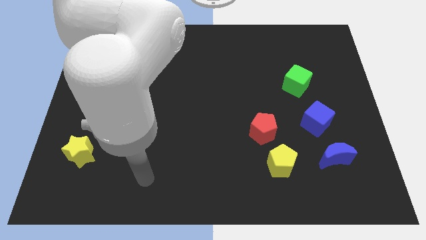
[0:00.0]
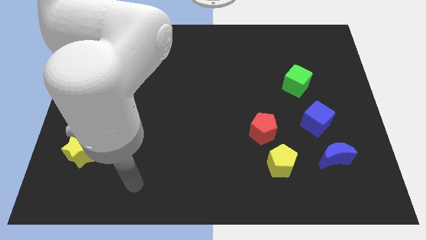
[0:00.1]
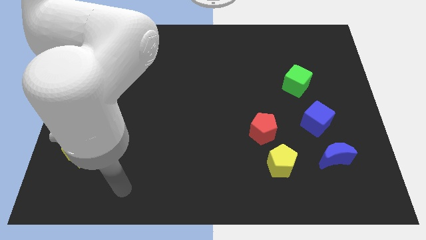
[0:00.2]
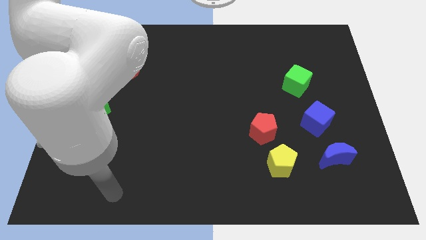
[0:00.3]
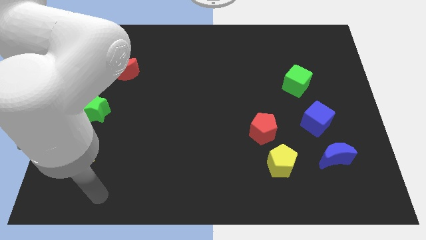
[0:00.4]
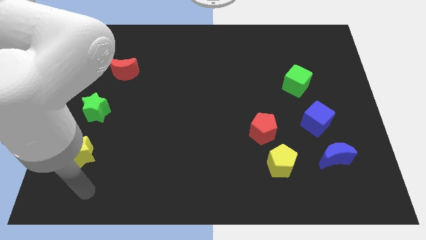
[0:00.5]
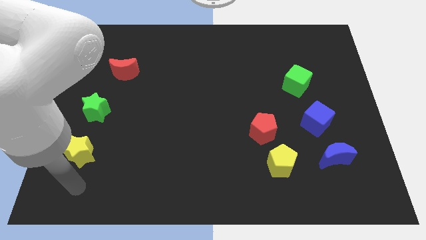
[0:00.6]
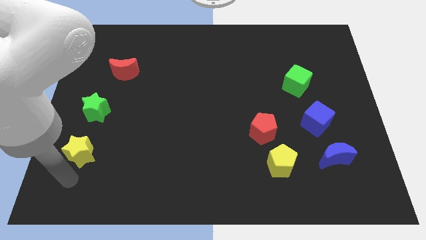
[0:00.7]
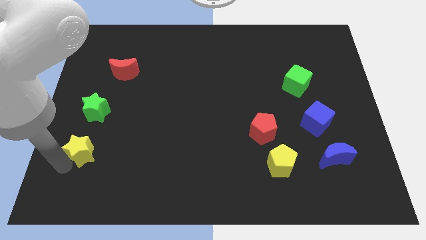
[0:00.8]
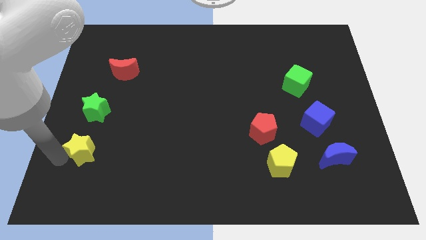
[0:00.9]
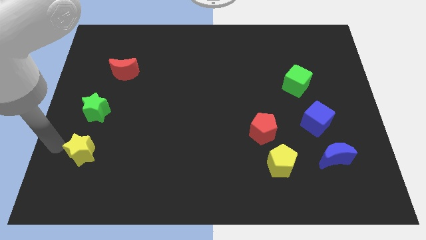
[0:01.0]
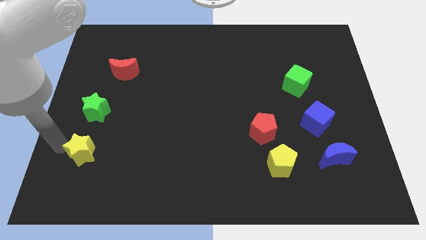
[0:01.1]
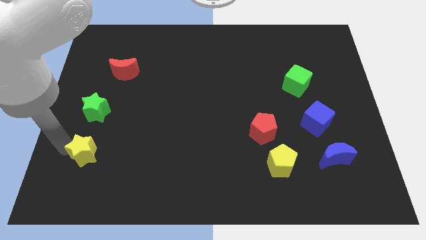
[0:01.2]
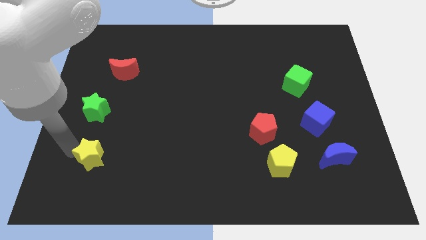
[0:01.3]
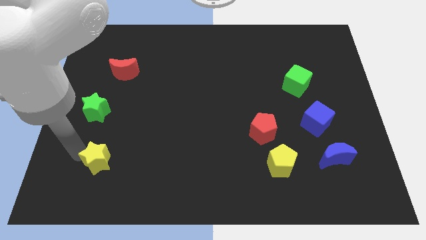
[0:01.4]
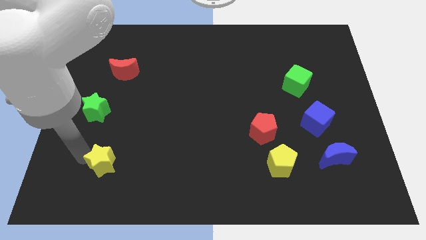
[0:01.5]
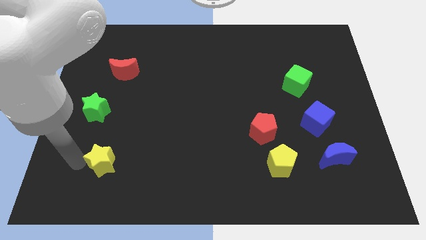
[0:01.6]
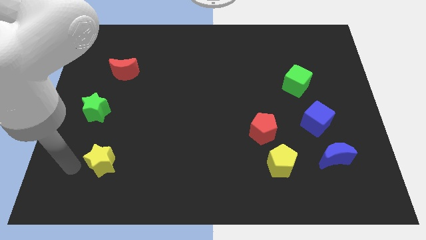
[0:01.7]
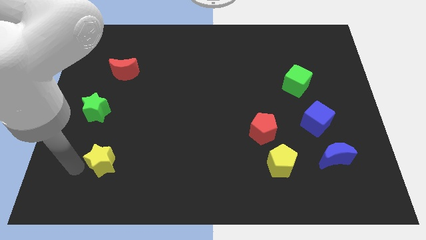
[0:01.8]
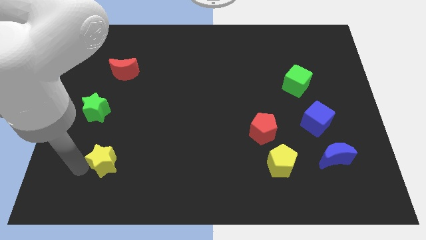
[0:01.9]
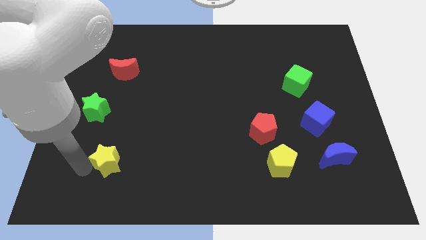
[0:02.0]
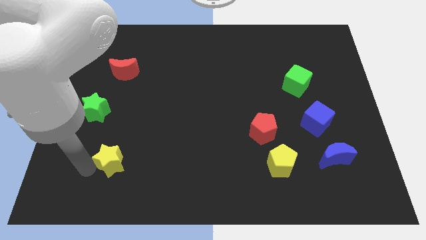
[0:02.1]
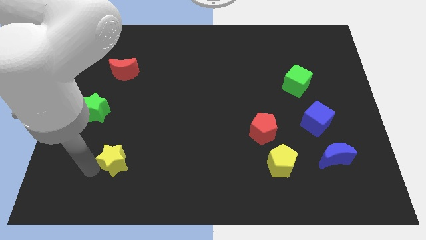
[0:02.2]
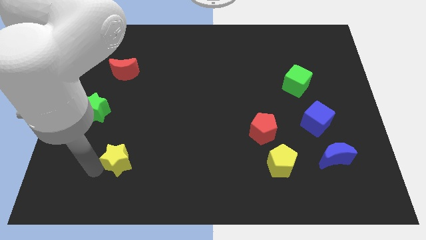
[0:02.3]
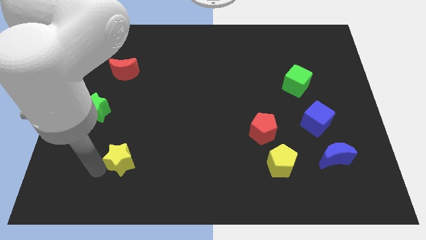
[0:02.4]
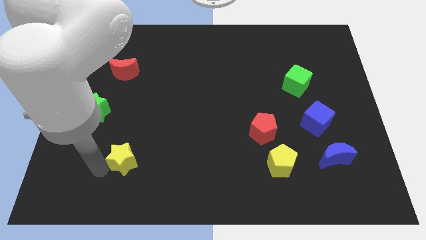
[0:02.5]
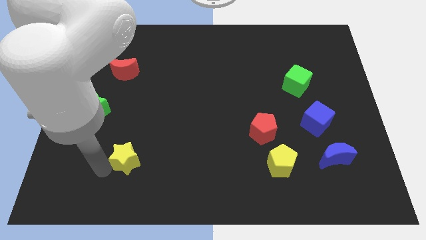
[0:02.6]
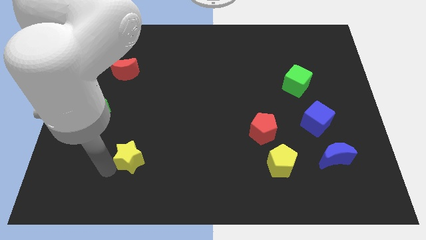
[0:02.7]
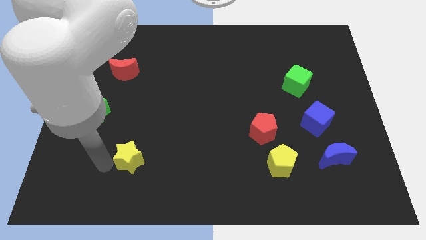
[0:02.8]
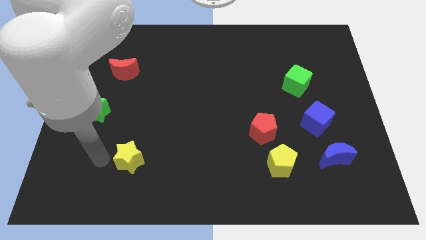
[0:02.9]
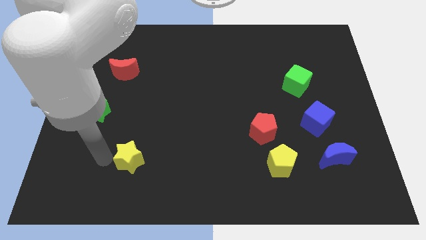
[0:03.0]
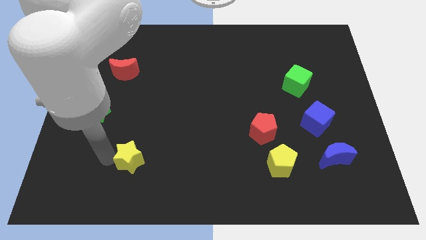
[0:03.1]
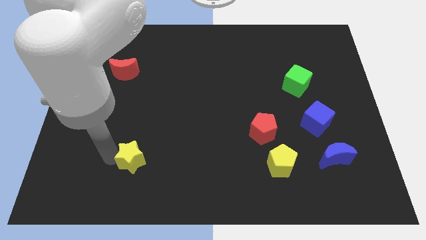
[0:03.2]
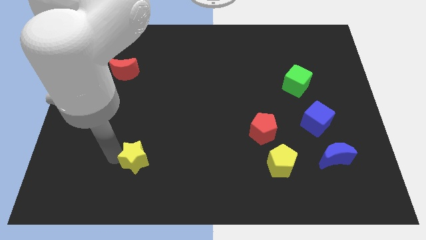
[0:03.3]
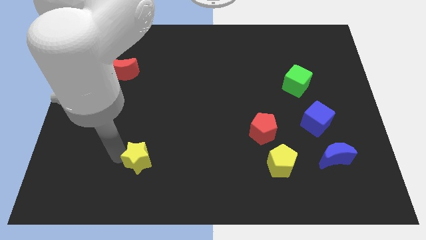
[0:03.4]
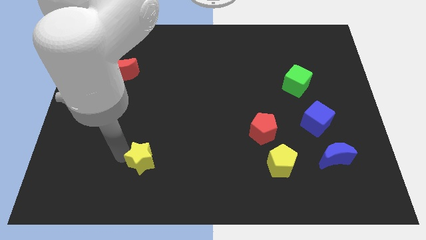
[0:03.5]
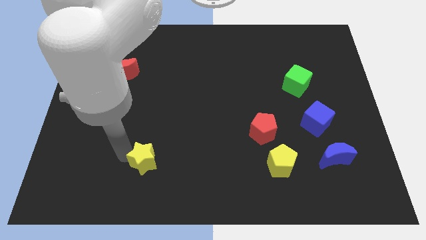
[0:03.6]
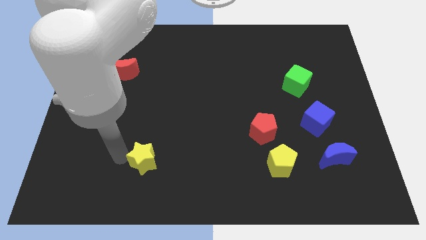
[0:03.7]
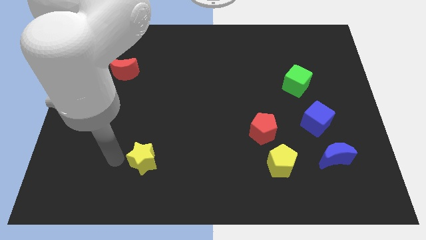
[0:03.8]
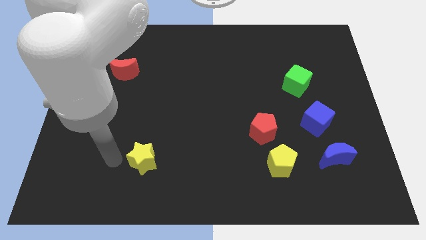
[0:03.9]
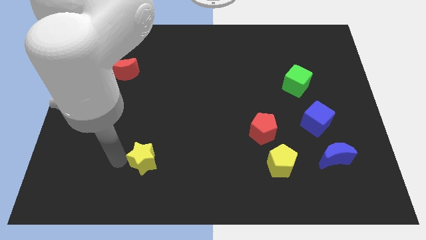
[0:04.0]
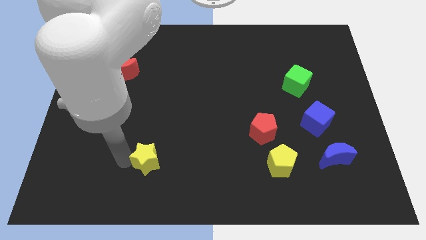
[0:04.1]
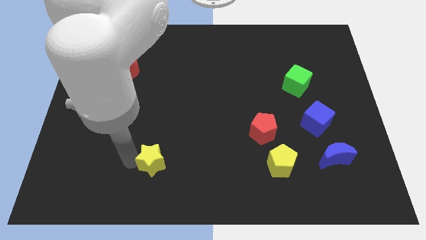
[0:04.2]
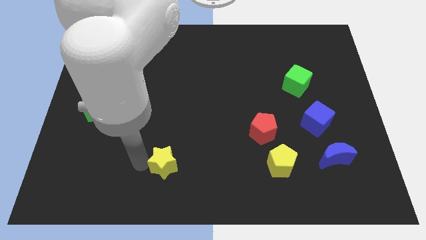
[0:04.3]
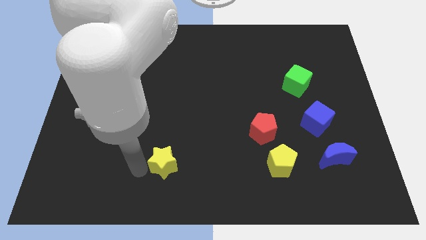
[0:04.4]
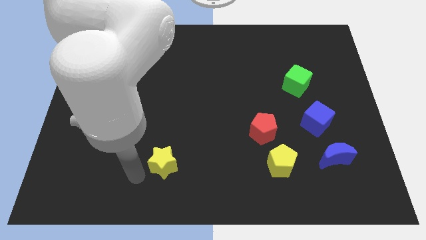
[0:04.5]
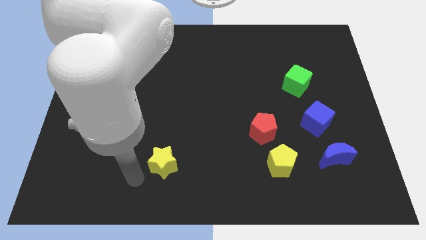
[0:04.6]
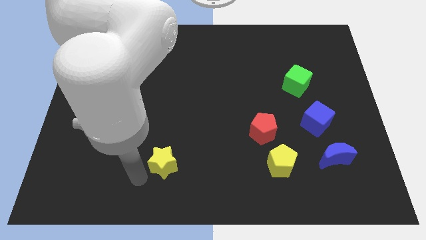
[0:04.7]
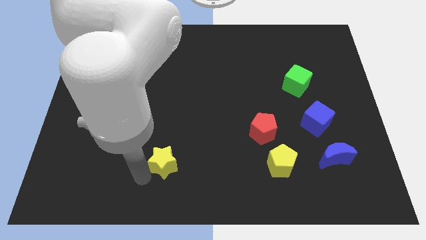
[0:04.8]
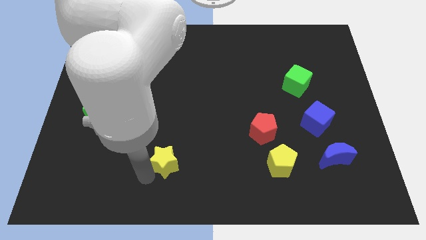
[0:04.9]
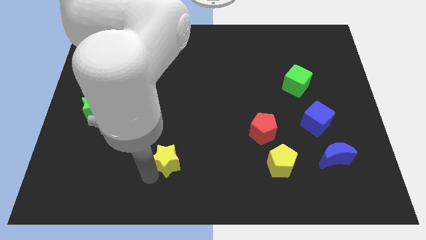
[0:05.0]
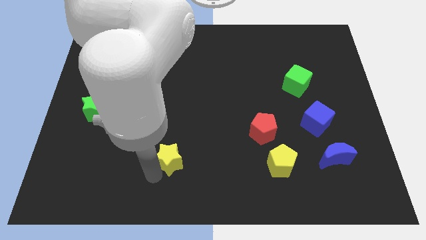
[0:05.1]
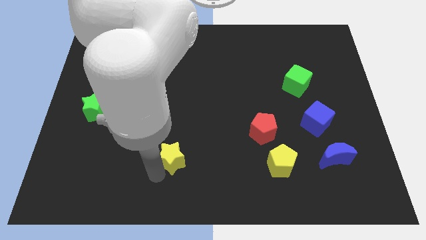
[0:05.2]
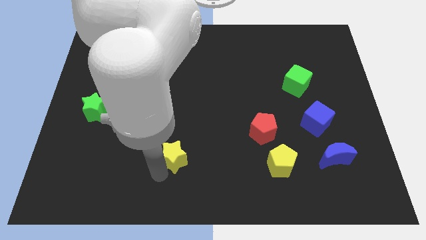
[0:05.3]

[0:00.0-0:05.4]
slide the yellow star to the right

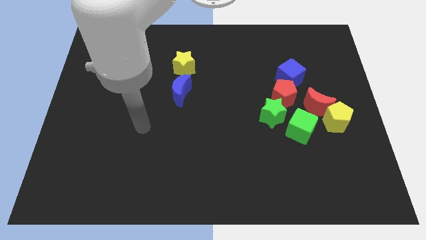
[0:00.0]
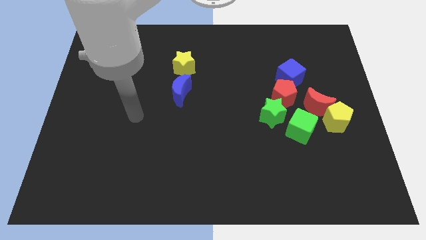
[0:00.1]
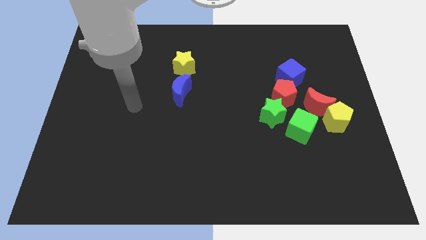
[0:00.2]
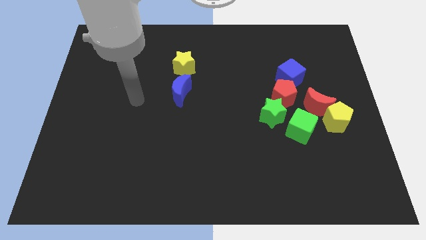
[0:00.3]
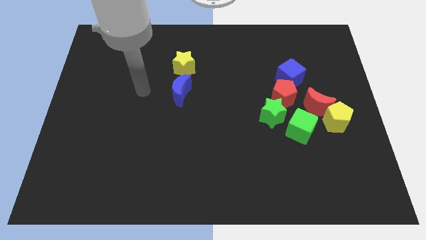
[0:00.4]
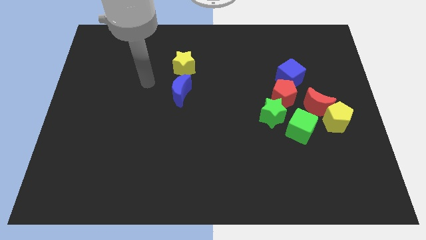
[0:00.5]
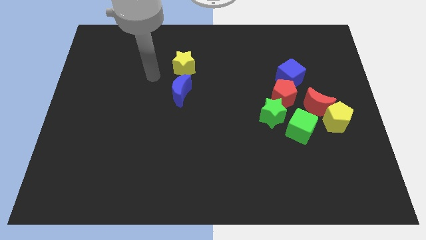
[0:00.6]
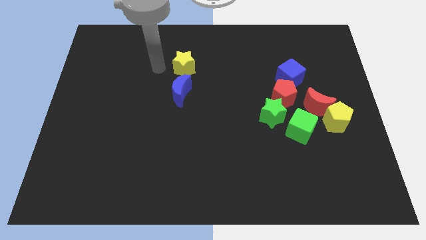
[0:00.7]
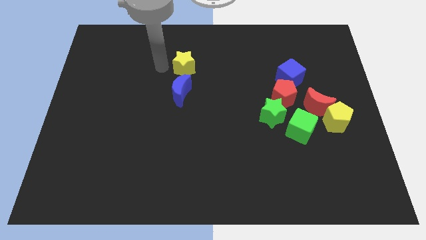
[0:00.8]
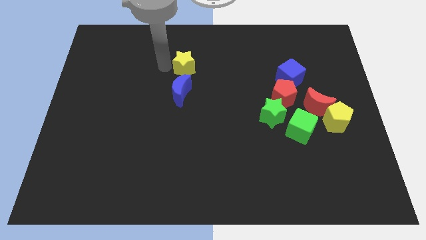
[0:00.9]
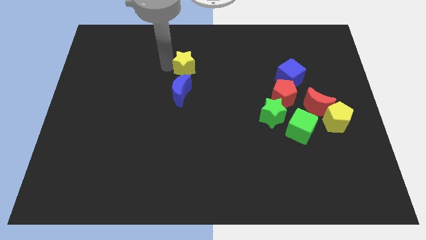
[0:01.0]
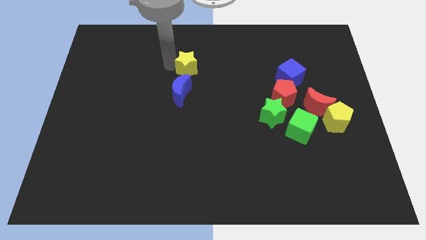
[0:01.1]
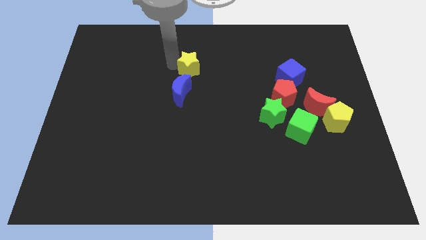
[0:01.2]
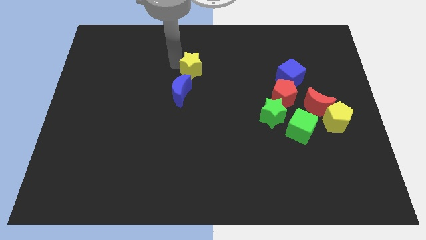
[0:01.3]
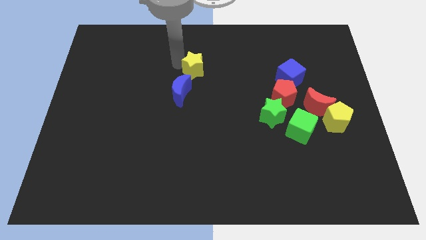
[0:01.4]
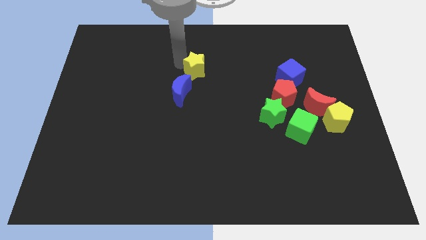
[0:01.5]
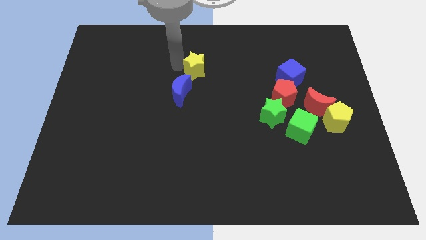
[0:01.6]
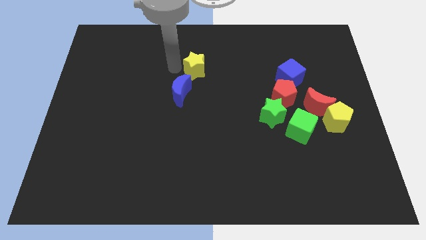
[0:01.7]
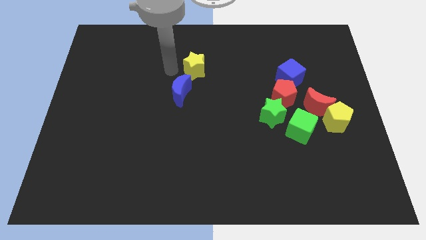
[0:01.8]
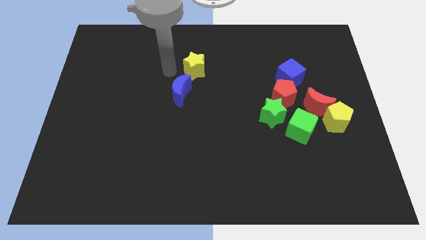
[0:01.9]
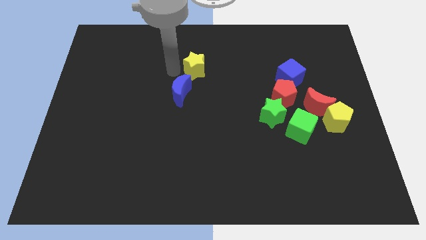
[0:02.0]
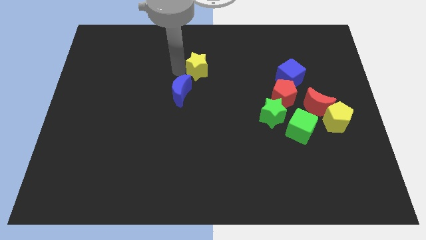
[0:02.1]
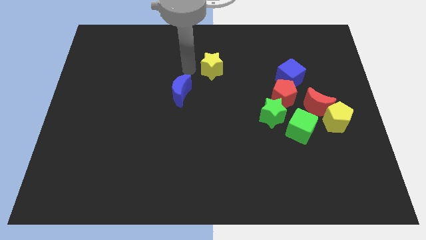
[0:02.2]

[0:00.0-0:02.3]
push the yellow star a bit to the right

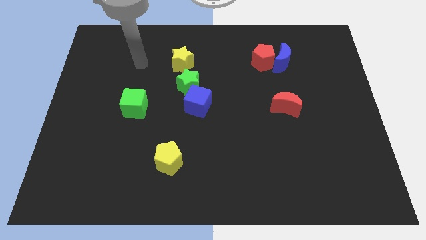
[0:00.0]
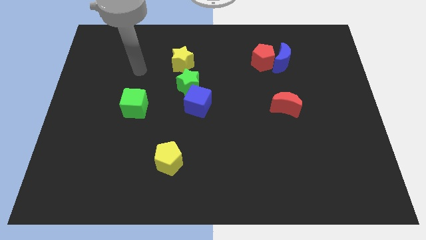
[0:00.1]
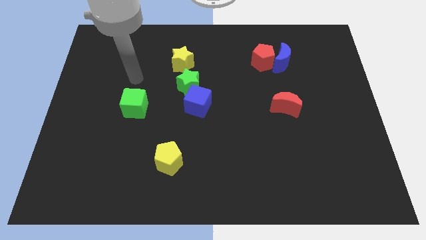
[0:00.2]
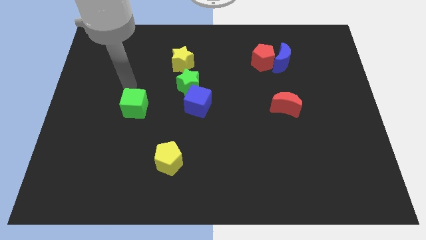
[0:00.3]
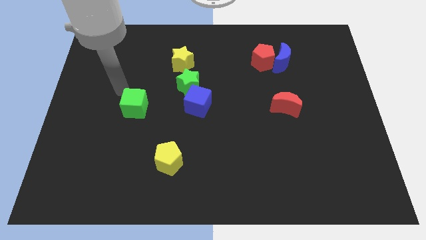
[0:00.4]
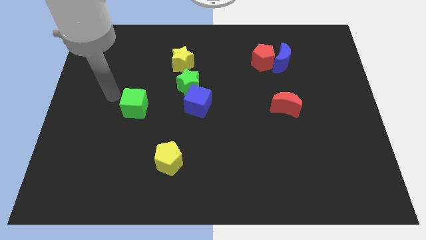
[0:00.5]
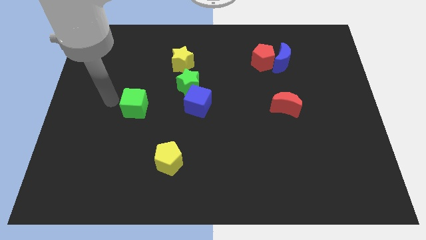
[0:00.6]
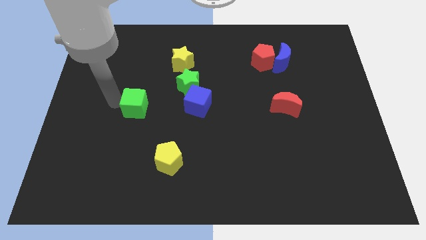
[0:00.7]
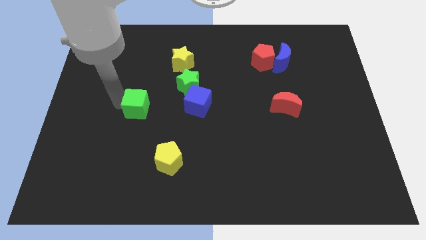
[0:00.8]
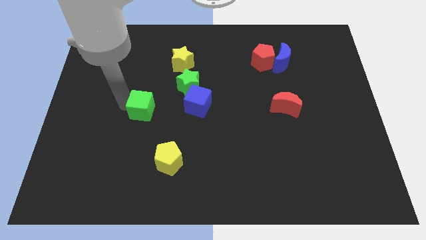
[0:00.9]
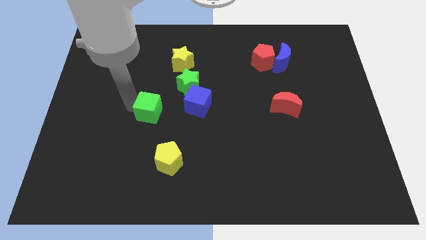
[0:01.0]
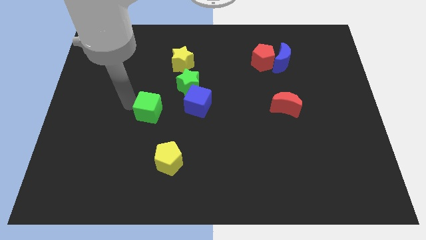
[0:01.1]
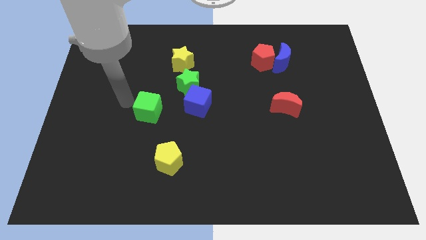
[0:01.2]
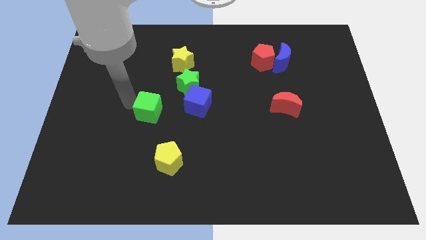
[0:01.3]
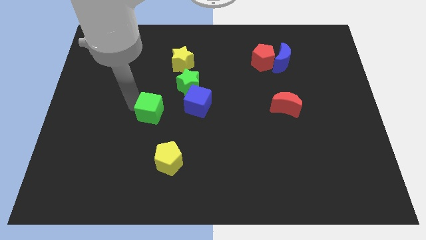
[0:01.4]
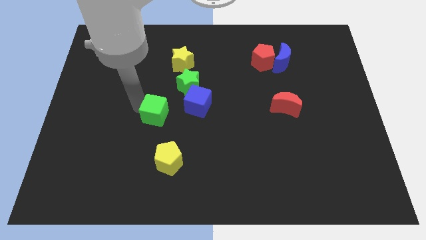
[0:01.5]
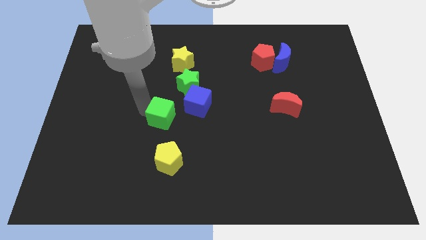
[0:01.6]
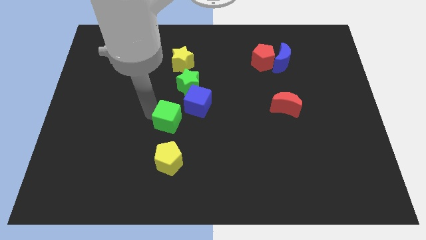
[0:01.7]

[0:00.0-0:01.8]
slightly push the green cube right
